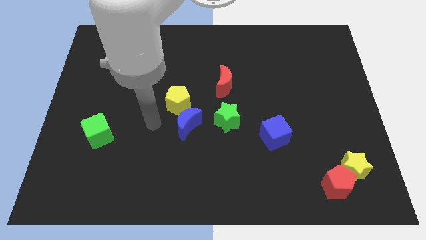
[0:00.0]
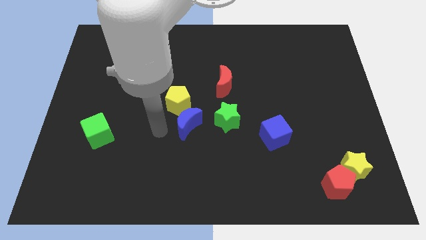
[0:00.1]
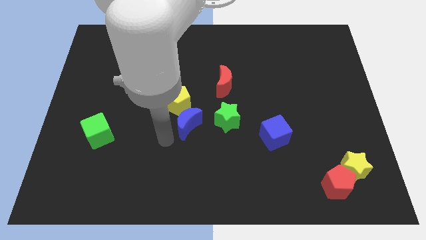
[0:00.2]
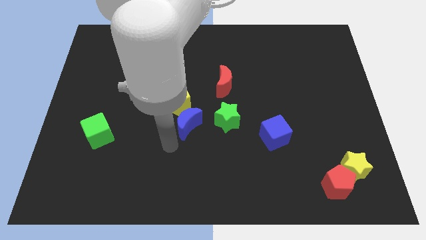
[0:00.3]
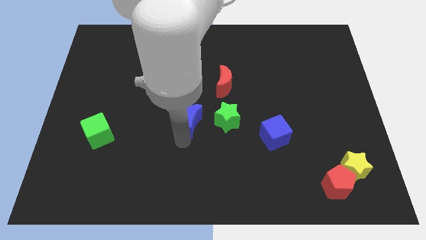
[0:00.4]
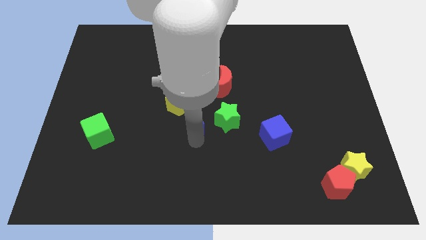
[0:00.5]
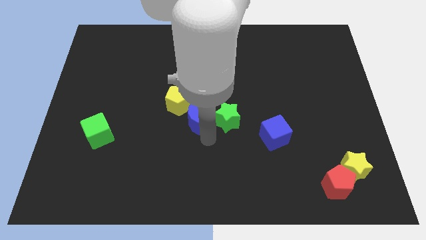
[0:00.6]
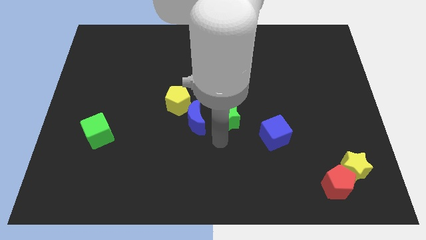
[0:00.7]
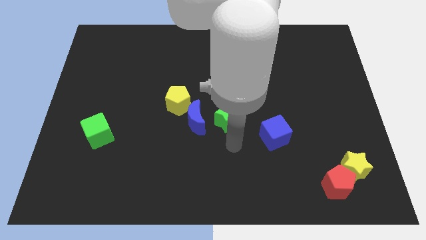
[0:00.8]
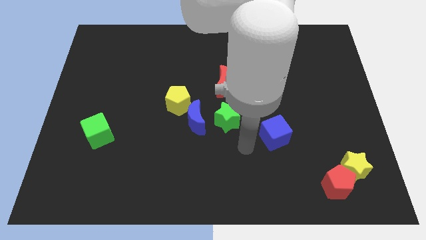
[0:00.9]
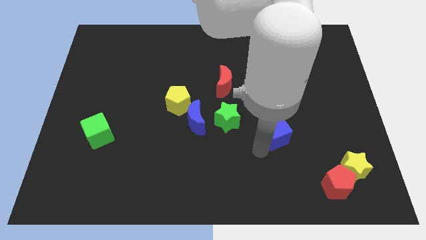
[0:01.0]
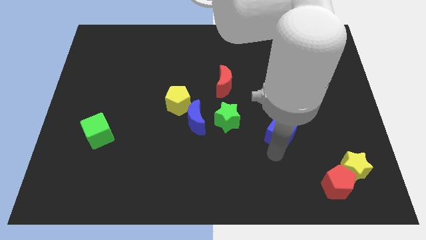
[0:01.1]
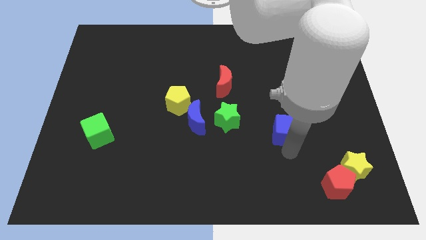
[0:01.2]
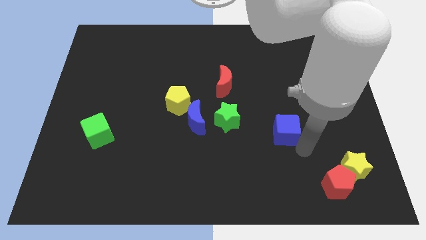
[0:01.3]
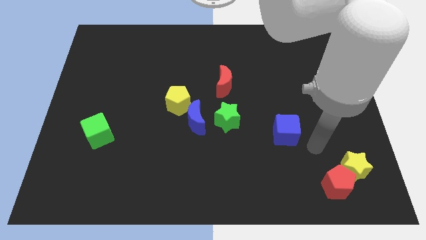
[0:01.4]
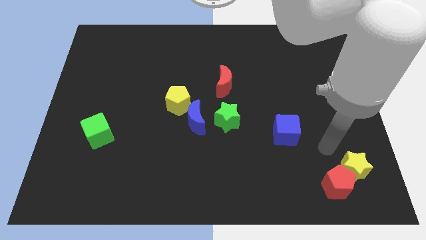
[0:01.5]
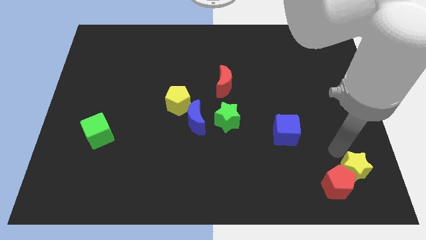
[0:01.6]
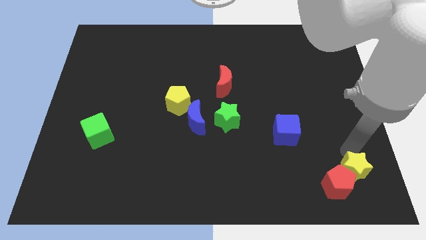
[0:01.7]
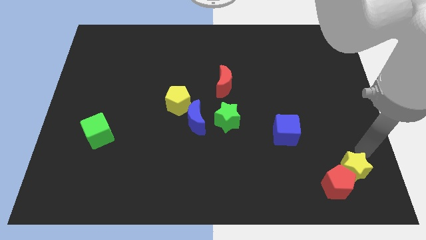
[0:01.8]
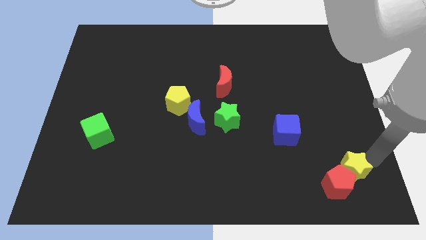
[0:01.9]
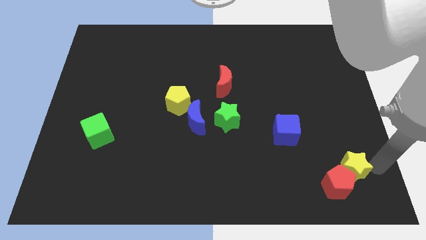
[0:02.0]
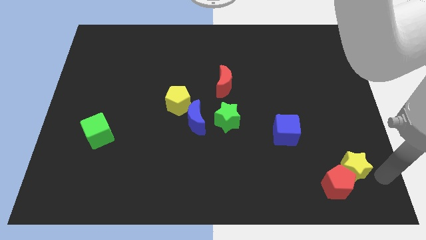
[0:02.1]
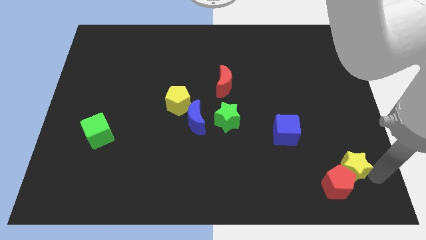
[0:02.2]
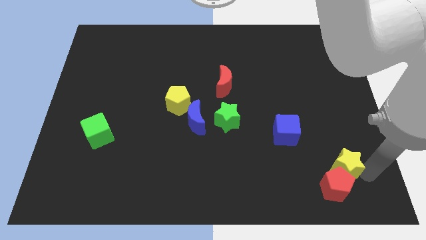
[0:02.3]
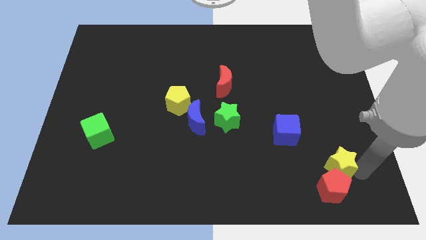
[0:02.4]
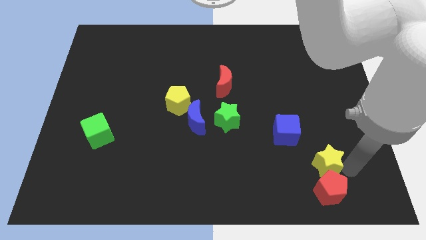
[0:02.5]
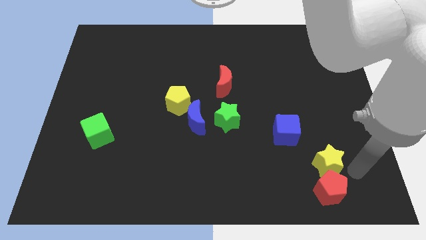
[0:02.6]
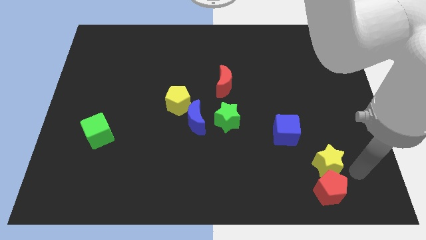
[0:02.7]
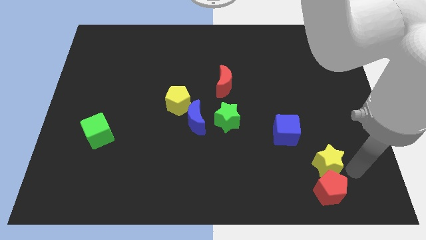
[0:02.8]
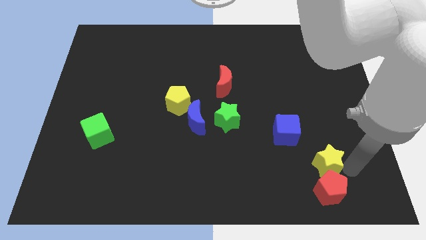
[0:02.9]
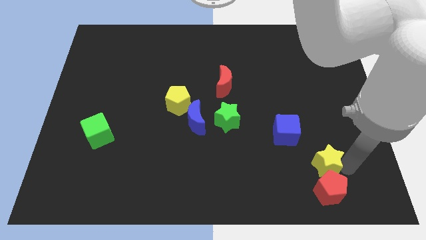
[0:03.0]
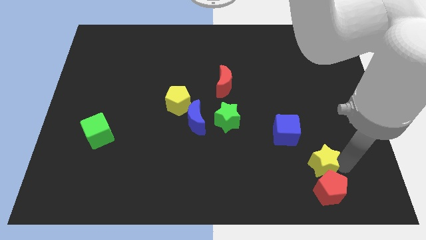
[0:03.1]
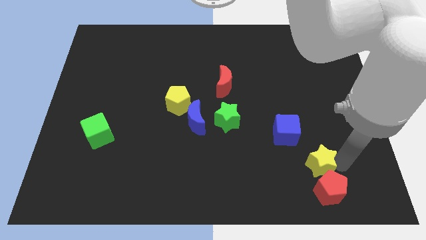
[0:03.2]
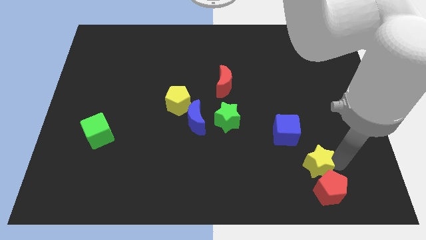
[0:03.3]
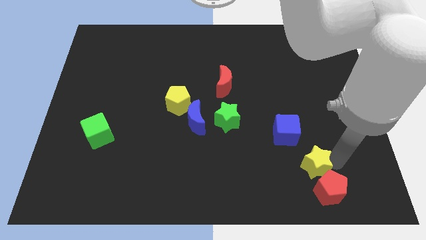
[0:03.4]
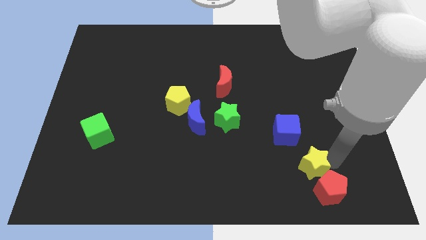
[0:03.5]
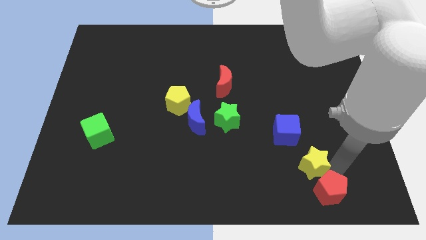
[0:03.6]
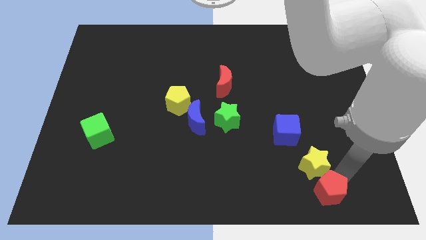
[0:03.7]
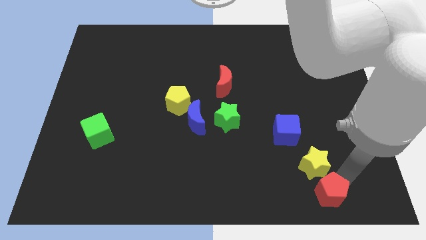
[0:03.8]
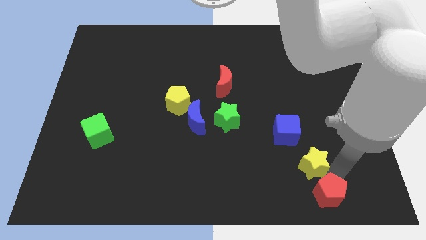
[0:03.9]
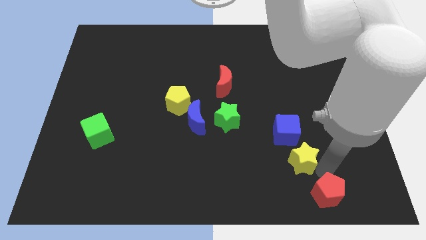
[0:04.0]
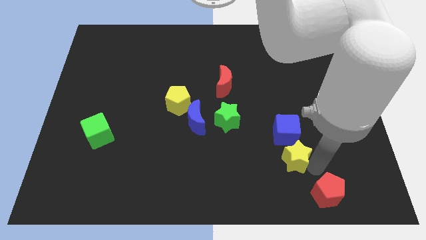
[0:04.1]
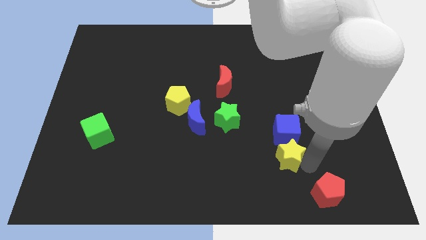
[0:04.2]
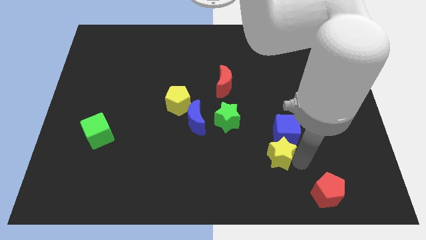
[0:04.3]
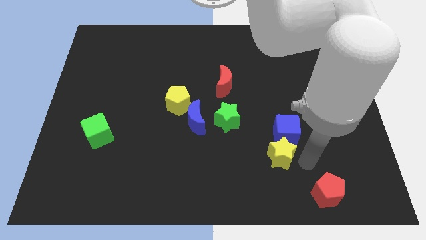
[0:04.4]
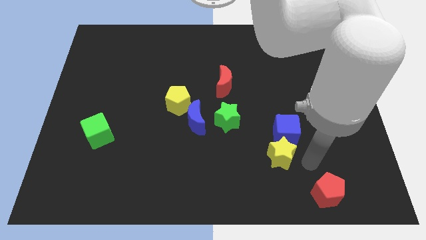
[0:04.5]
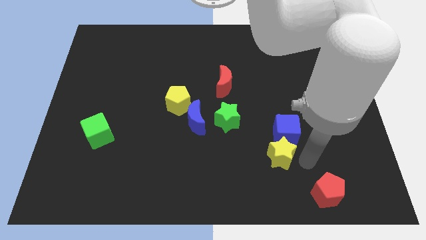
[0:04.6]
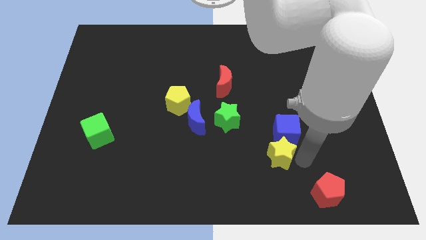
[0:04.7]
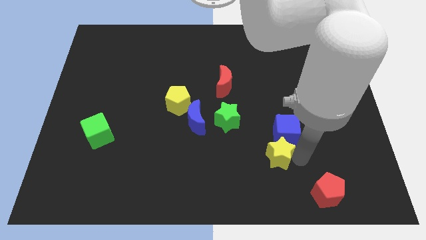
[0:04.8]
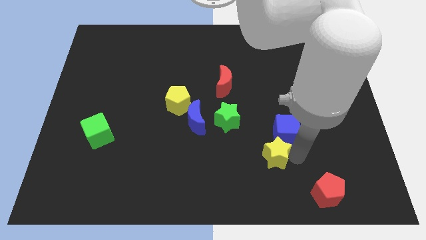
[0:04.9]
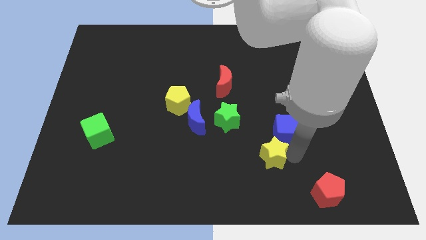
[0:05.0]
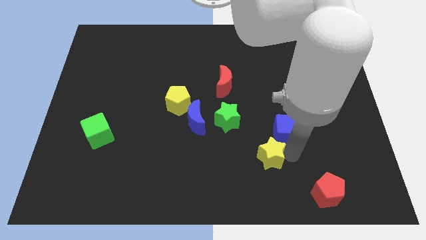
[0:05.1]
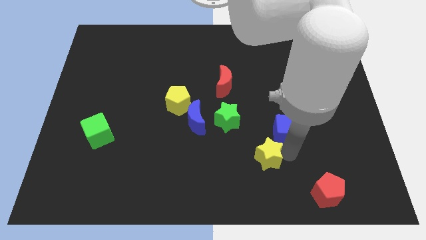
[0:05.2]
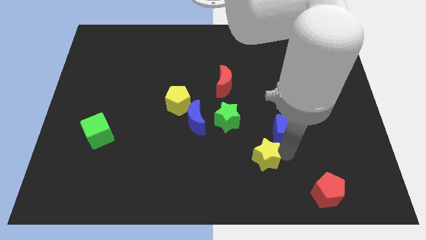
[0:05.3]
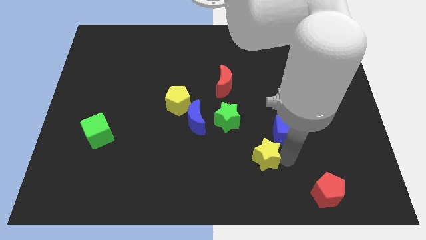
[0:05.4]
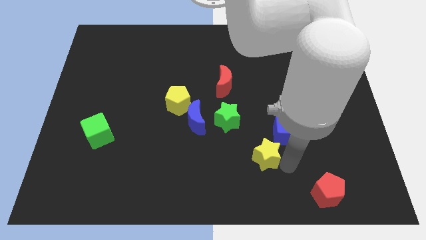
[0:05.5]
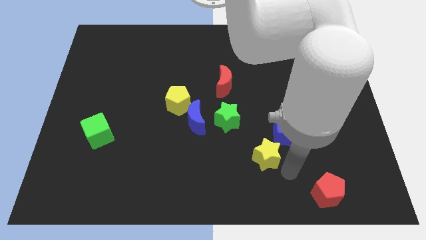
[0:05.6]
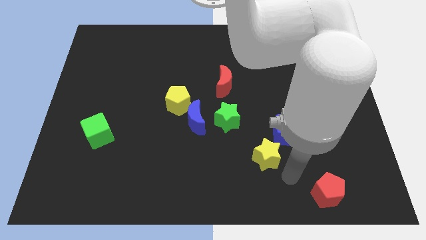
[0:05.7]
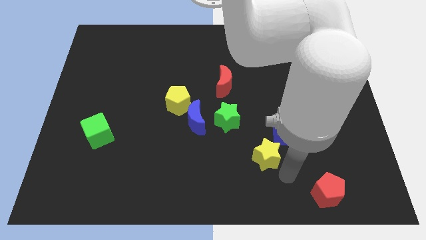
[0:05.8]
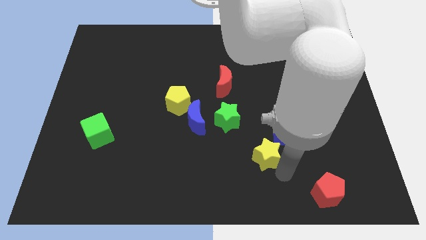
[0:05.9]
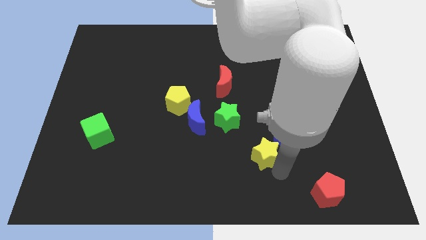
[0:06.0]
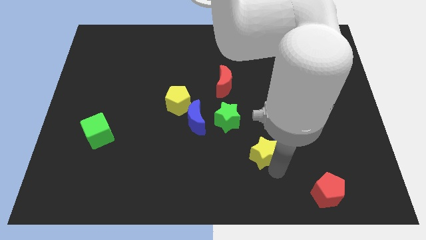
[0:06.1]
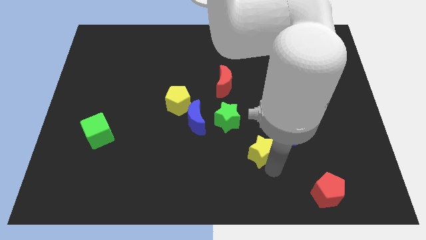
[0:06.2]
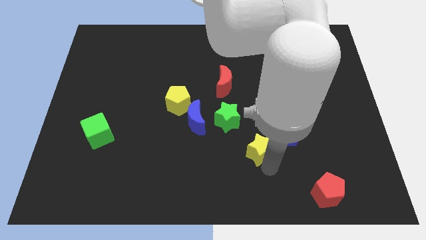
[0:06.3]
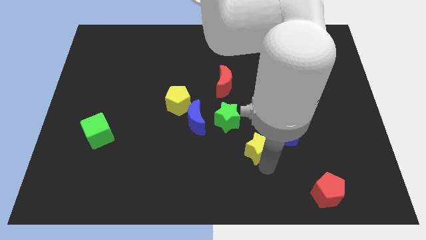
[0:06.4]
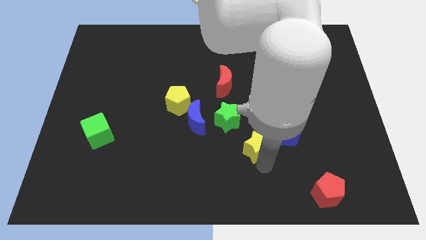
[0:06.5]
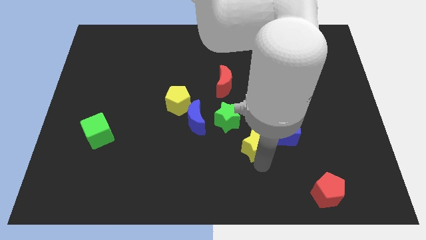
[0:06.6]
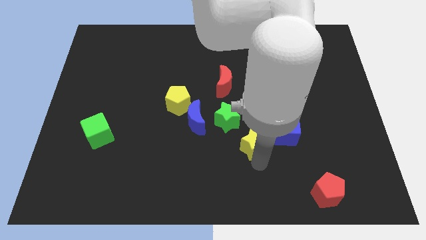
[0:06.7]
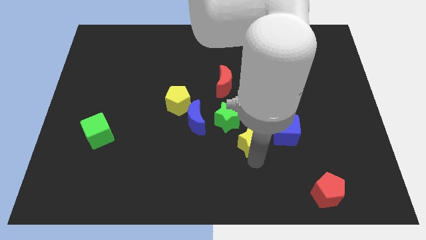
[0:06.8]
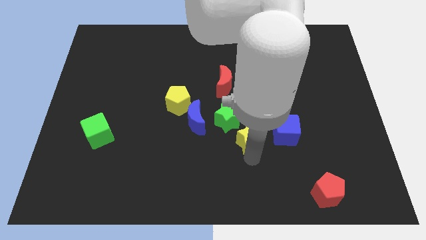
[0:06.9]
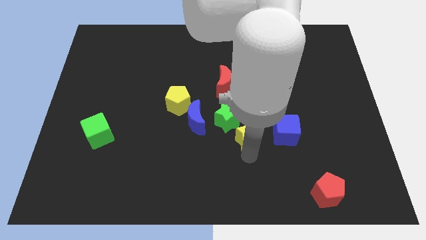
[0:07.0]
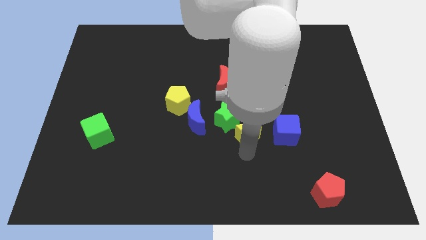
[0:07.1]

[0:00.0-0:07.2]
push the yellow star close to the green star

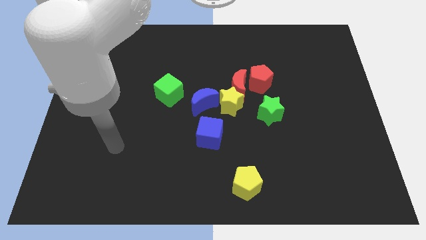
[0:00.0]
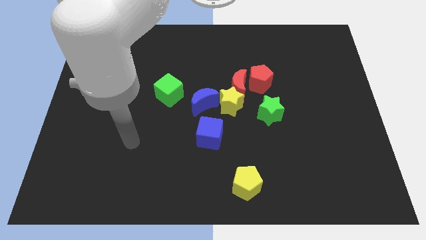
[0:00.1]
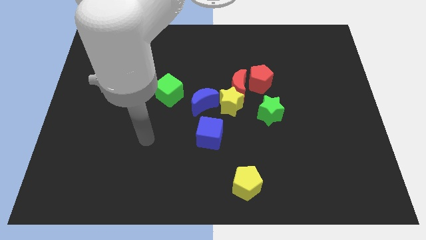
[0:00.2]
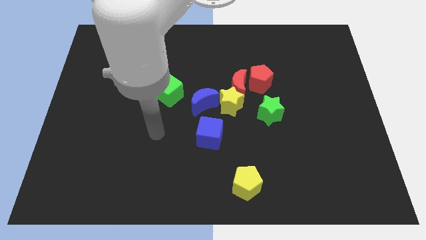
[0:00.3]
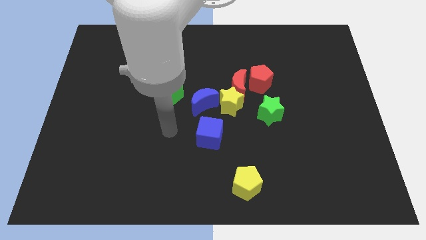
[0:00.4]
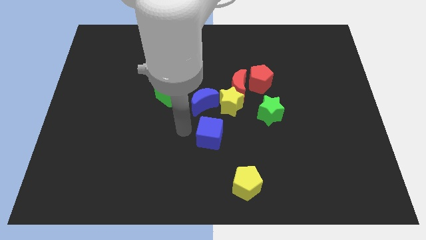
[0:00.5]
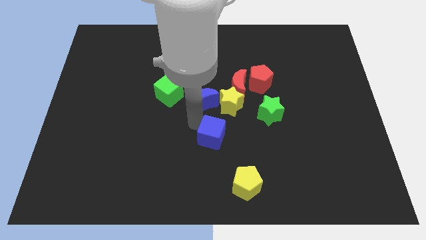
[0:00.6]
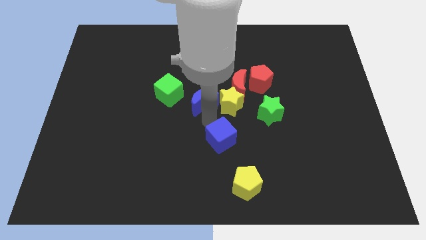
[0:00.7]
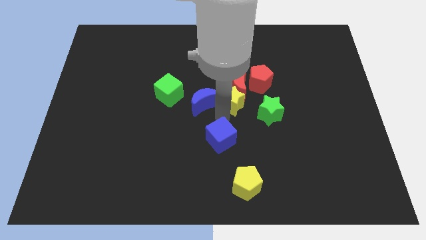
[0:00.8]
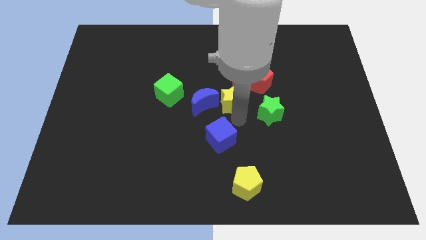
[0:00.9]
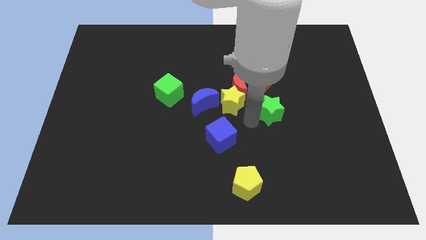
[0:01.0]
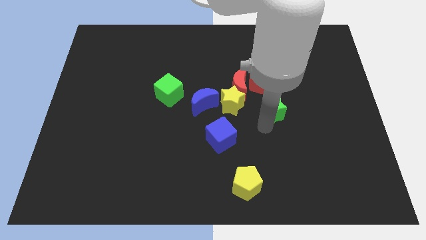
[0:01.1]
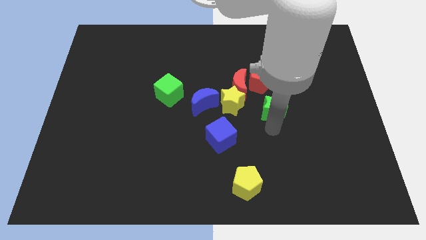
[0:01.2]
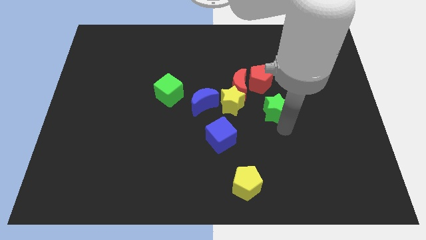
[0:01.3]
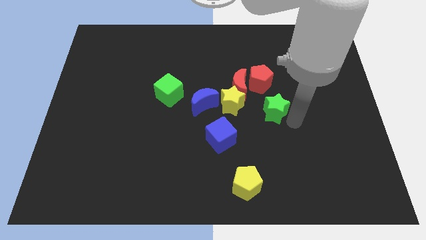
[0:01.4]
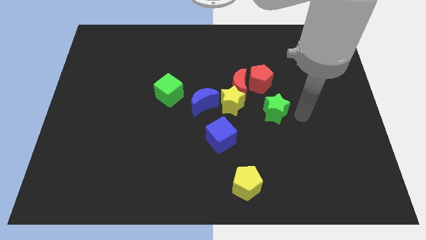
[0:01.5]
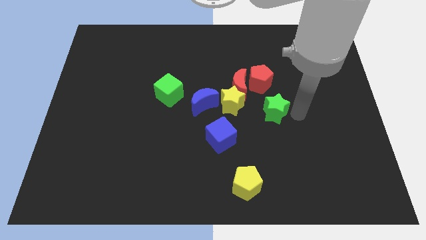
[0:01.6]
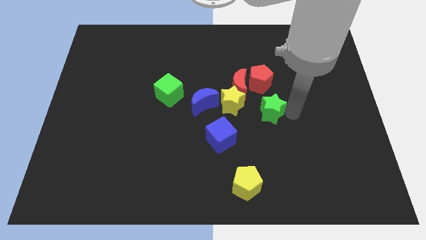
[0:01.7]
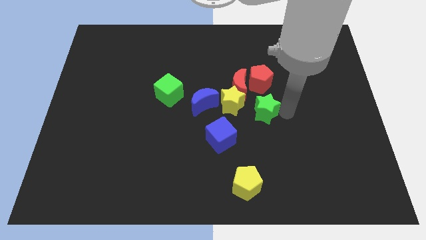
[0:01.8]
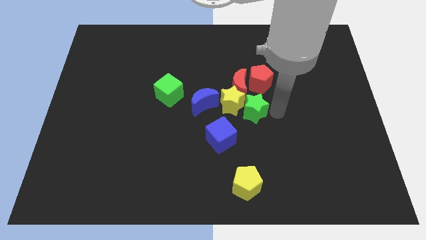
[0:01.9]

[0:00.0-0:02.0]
push the green star towards the yellow star
